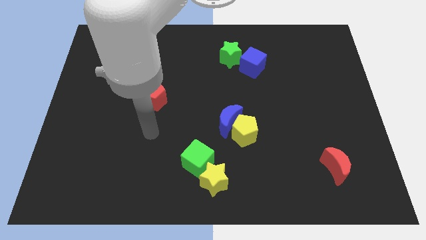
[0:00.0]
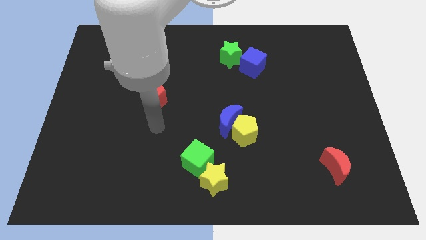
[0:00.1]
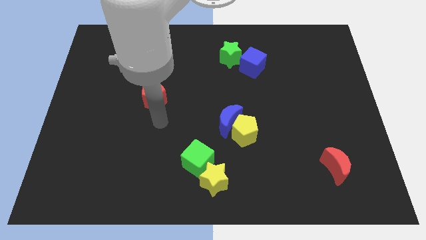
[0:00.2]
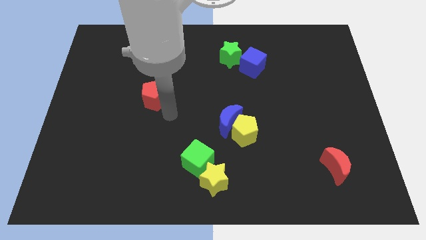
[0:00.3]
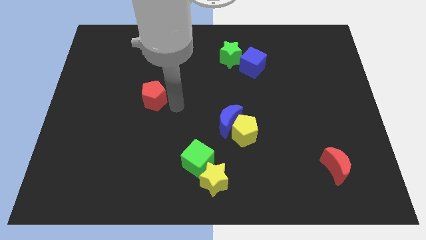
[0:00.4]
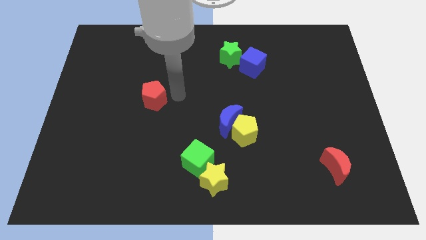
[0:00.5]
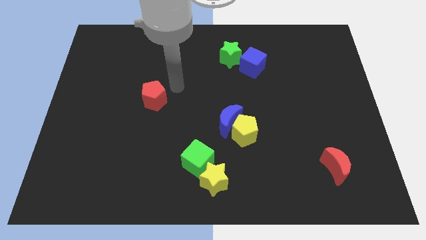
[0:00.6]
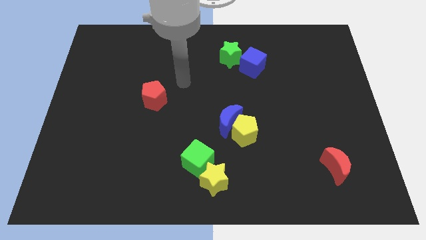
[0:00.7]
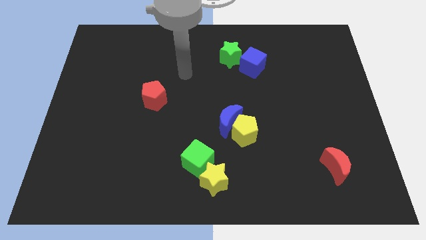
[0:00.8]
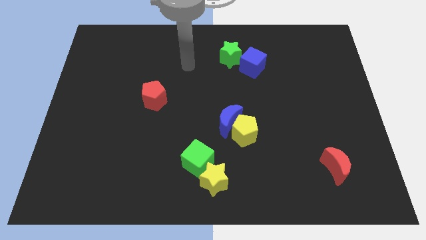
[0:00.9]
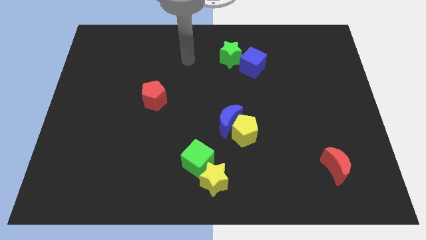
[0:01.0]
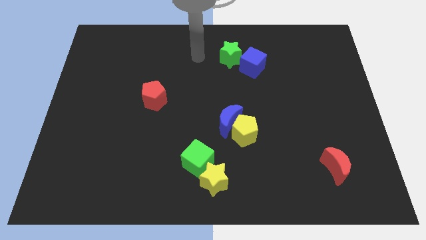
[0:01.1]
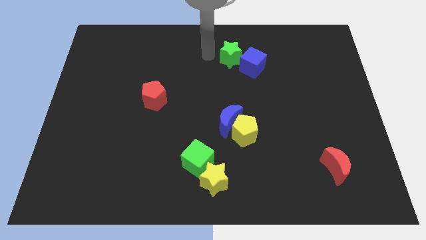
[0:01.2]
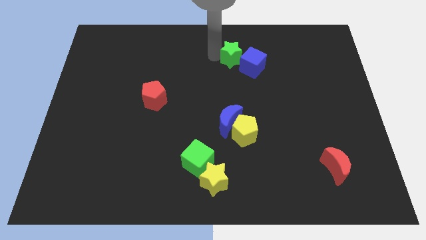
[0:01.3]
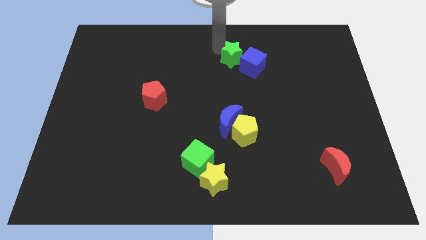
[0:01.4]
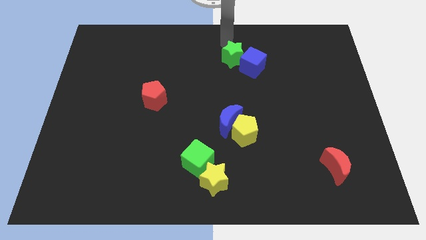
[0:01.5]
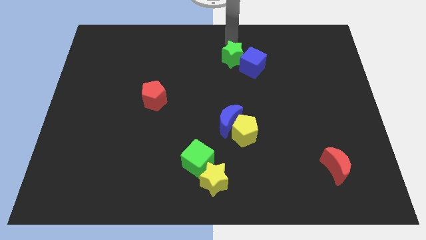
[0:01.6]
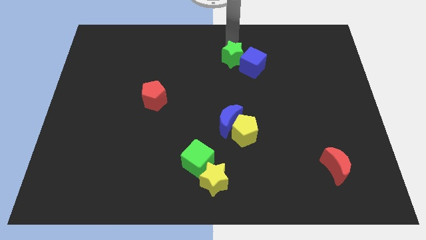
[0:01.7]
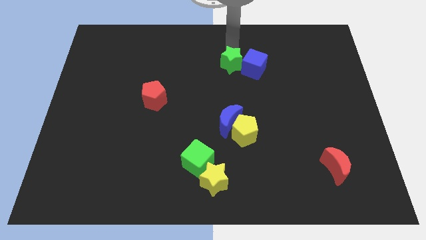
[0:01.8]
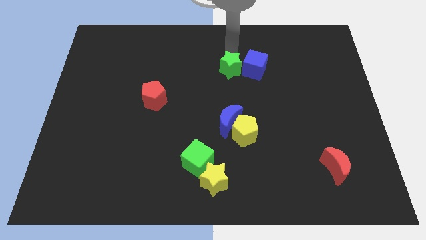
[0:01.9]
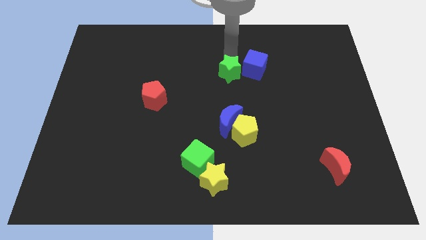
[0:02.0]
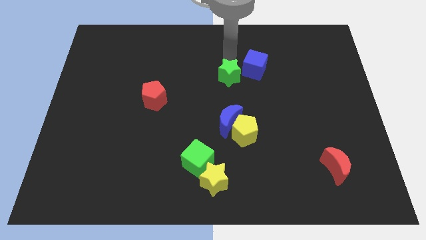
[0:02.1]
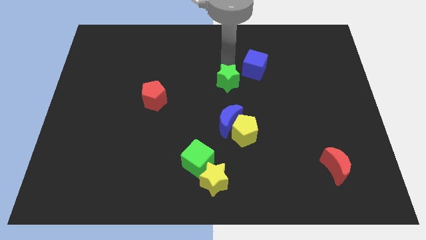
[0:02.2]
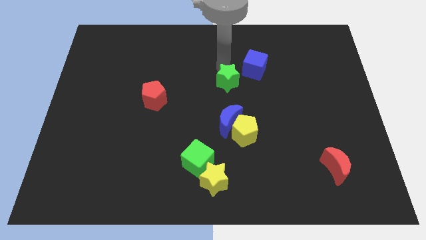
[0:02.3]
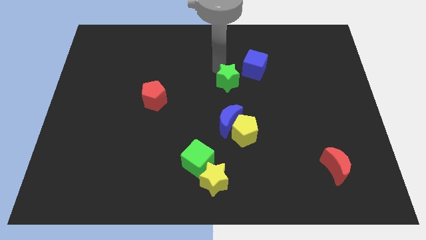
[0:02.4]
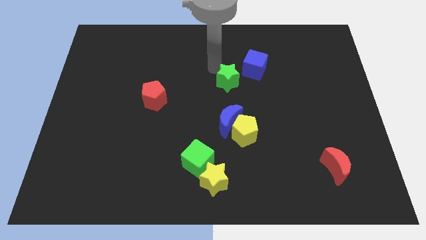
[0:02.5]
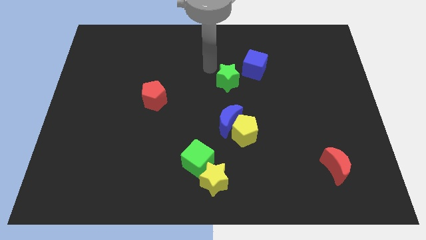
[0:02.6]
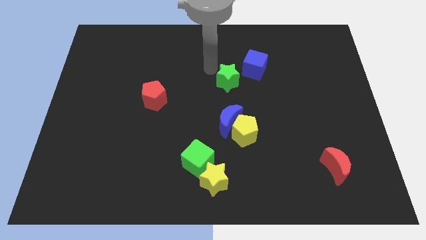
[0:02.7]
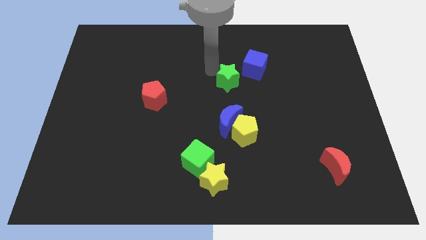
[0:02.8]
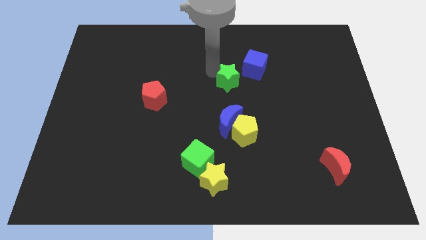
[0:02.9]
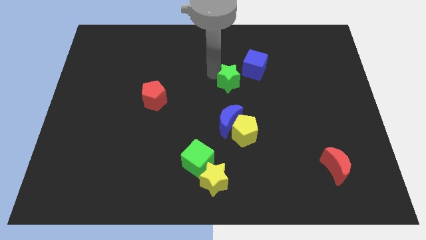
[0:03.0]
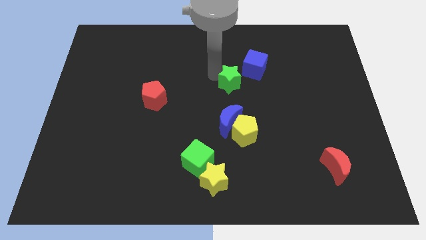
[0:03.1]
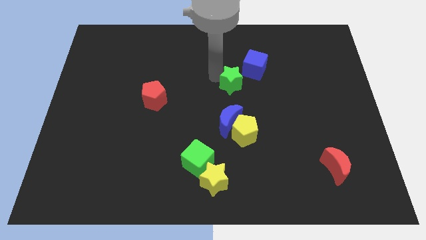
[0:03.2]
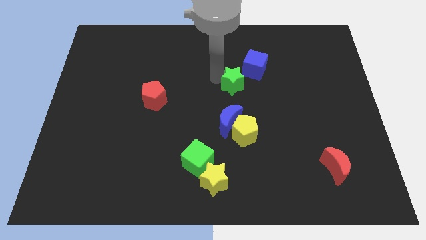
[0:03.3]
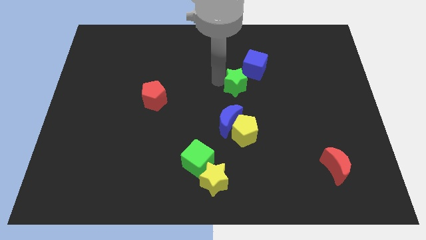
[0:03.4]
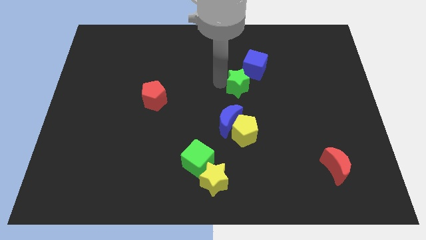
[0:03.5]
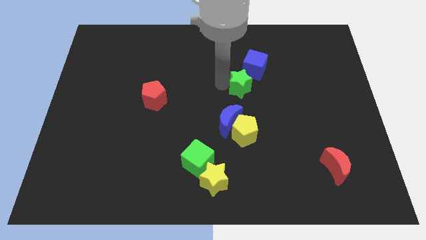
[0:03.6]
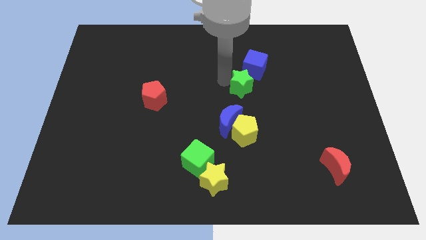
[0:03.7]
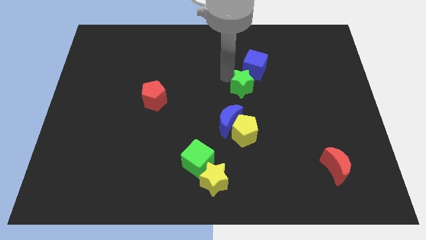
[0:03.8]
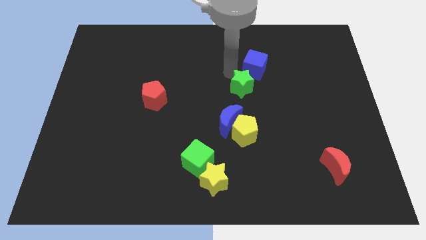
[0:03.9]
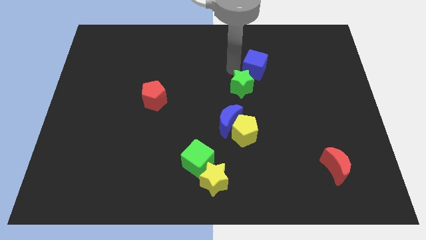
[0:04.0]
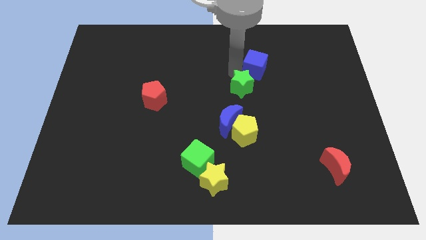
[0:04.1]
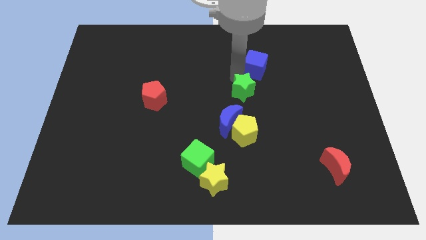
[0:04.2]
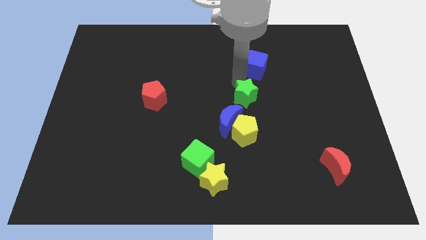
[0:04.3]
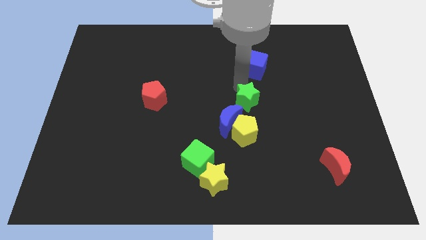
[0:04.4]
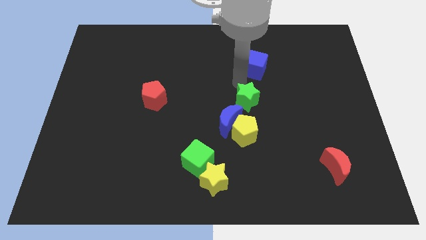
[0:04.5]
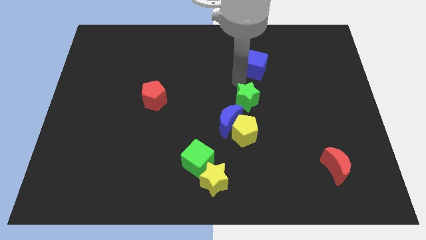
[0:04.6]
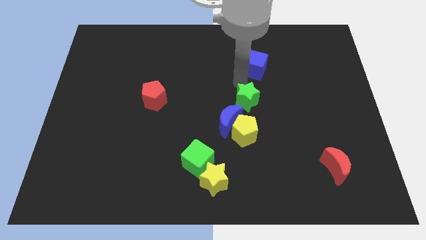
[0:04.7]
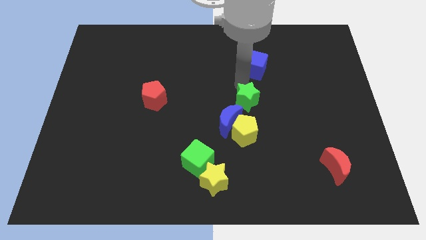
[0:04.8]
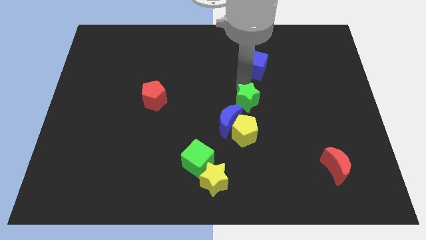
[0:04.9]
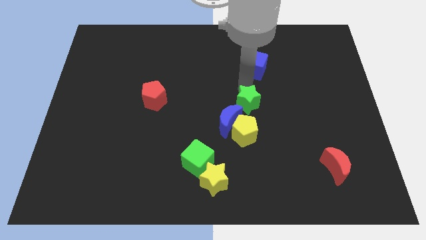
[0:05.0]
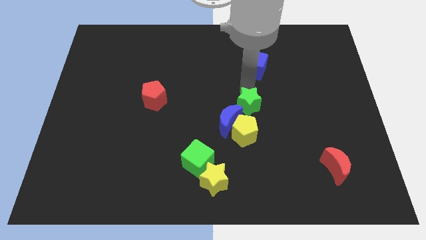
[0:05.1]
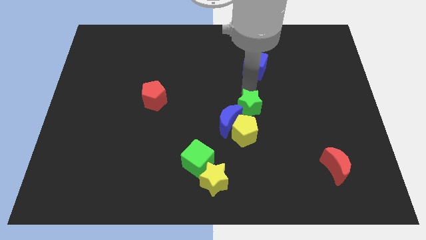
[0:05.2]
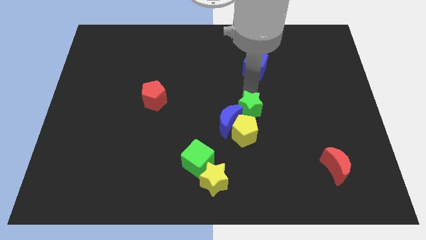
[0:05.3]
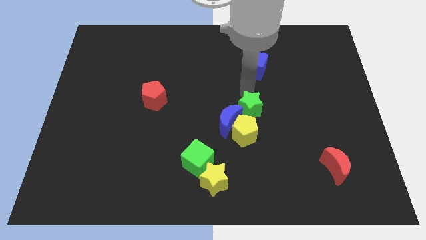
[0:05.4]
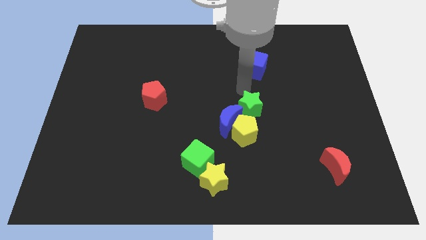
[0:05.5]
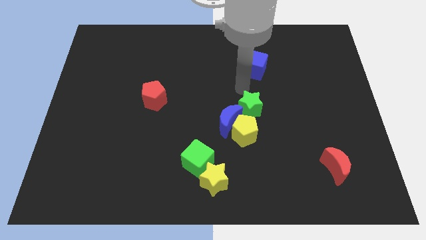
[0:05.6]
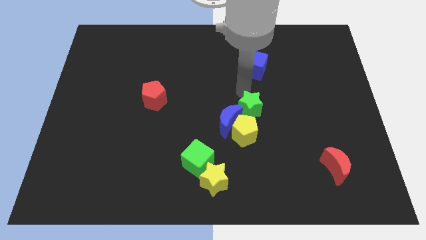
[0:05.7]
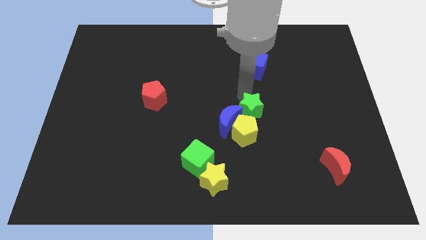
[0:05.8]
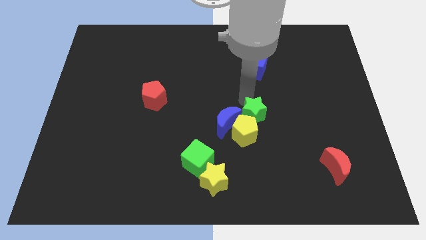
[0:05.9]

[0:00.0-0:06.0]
put the green star to the yellow pentagon

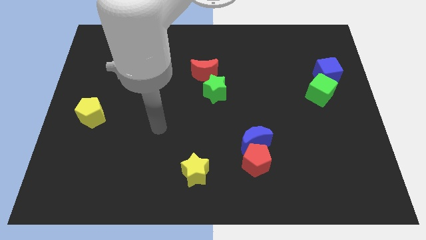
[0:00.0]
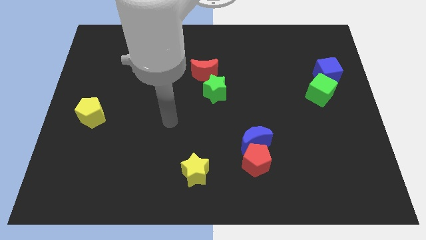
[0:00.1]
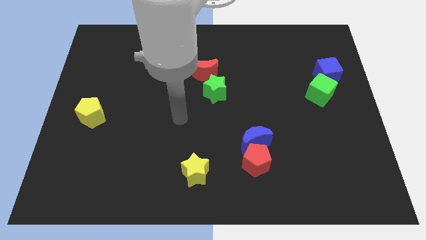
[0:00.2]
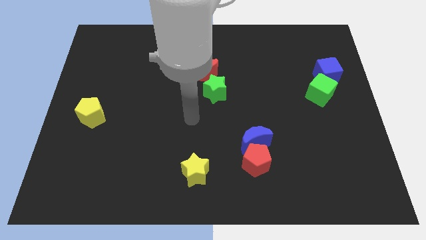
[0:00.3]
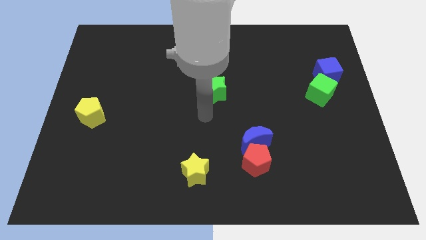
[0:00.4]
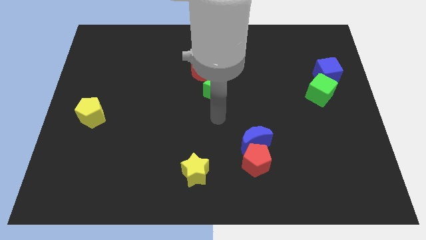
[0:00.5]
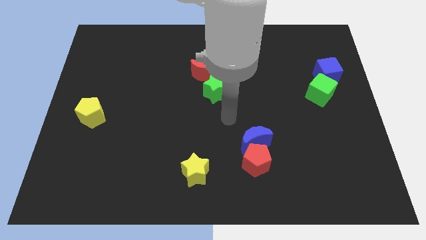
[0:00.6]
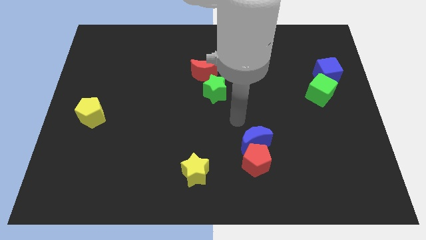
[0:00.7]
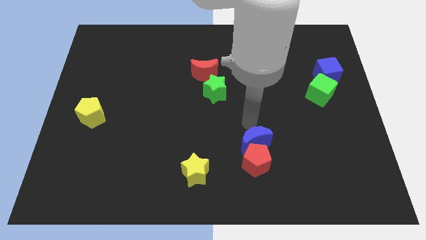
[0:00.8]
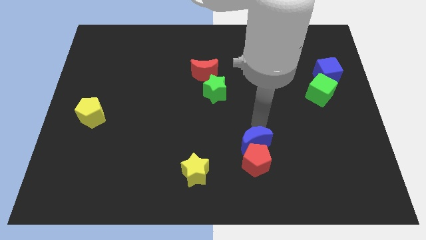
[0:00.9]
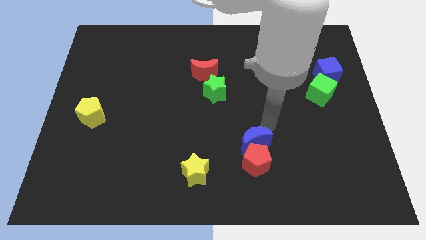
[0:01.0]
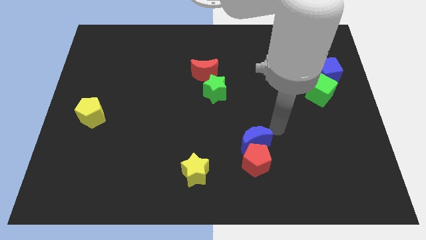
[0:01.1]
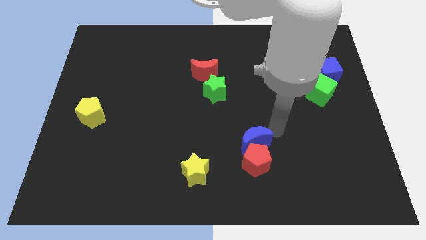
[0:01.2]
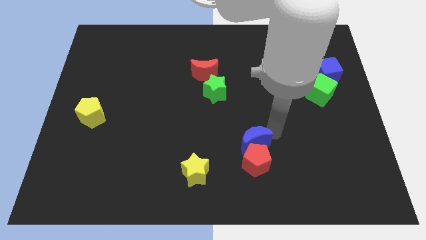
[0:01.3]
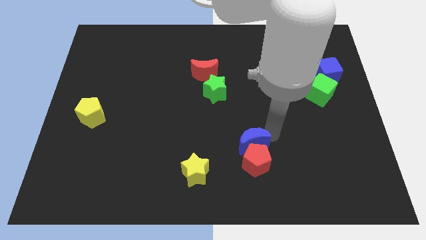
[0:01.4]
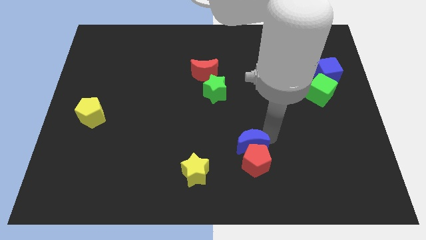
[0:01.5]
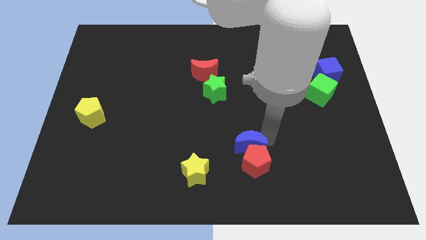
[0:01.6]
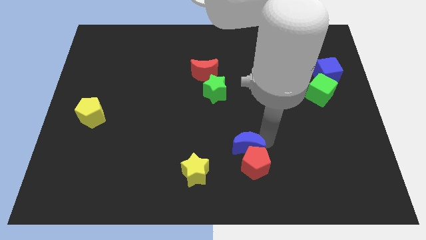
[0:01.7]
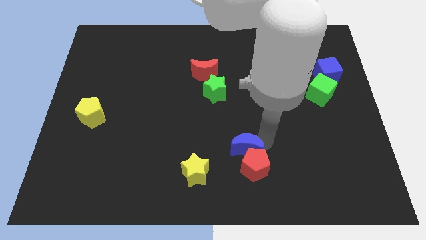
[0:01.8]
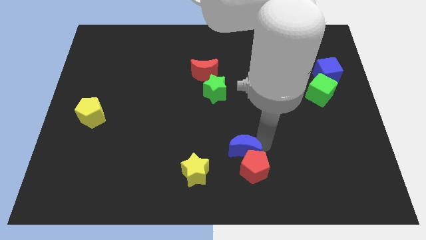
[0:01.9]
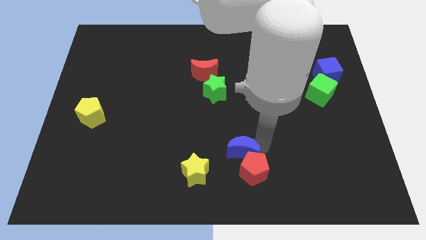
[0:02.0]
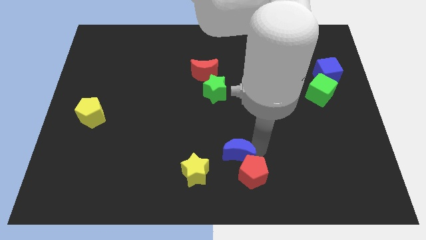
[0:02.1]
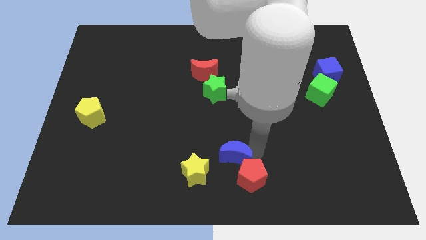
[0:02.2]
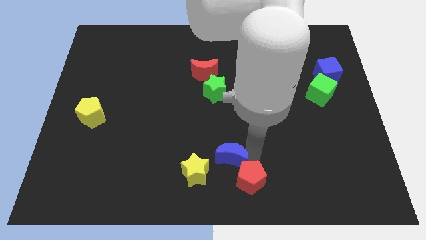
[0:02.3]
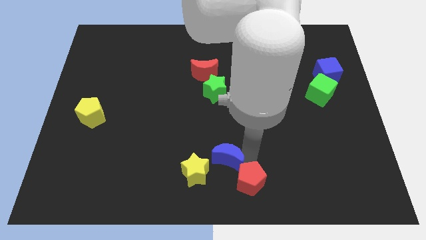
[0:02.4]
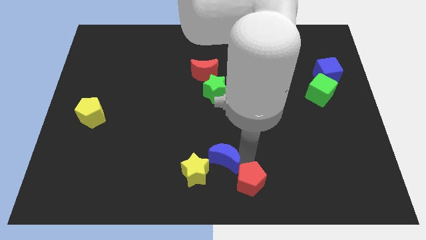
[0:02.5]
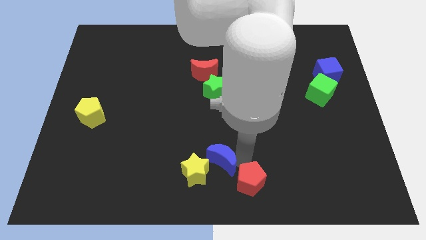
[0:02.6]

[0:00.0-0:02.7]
put the blue moon next to the yellow star

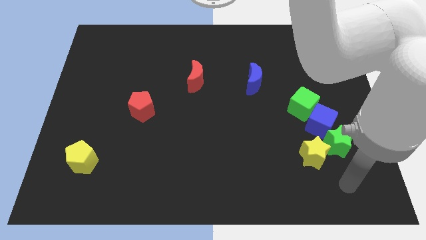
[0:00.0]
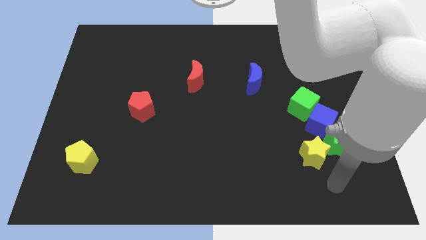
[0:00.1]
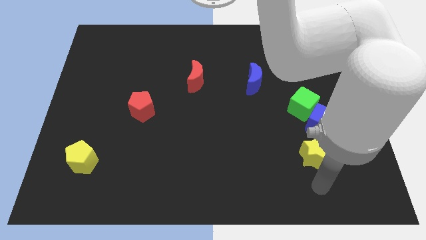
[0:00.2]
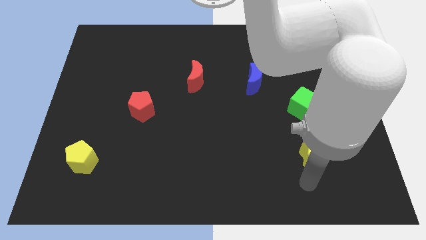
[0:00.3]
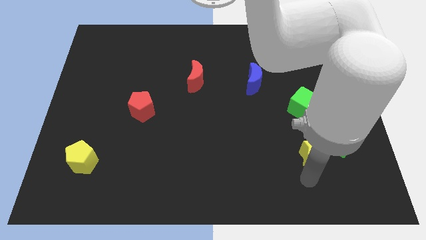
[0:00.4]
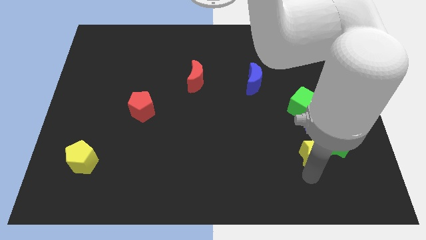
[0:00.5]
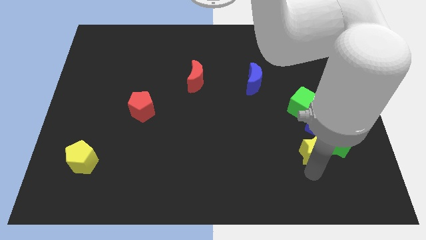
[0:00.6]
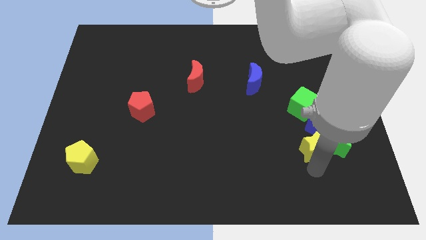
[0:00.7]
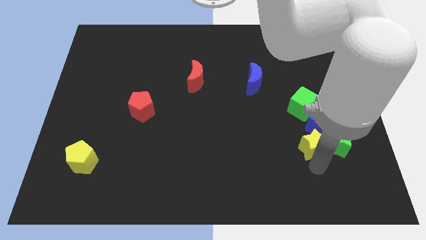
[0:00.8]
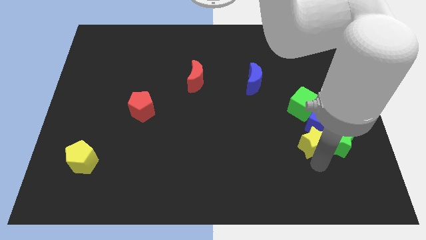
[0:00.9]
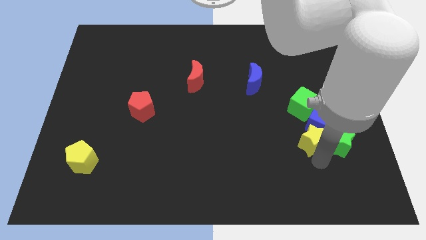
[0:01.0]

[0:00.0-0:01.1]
push the yellow star towards the blue cube
